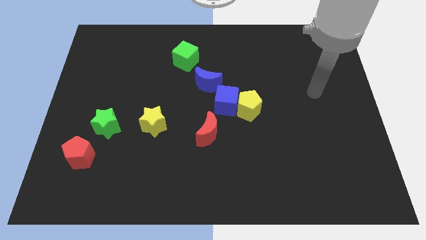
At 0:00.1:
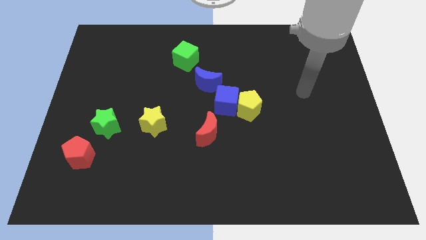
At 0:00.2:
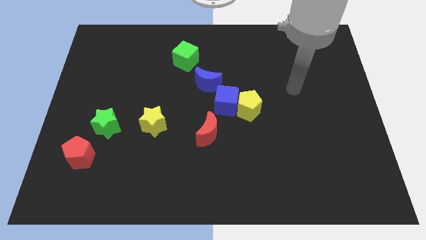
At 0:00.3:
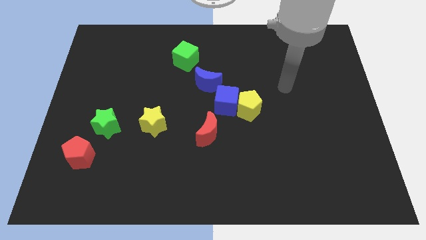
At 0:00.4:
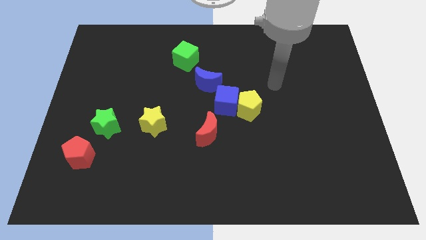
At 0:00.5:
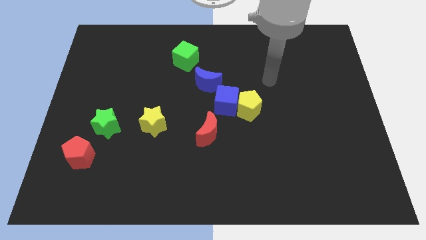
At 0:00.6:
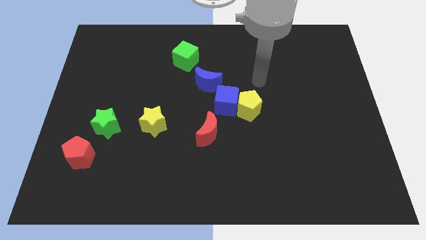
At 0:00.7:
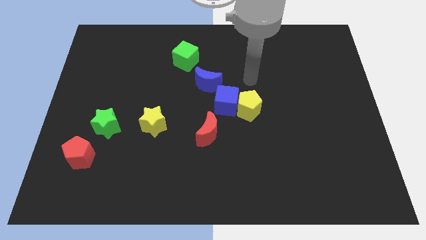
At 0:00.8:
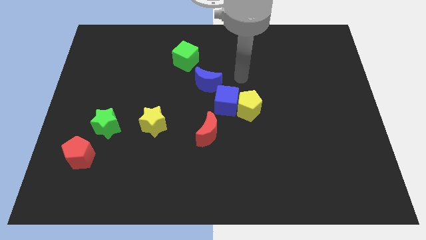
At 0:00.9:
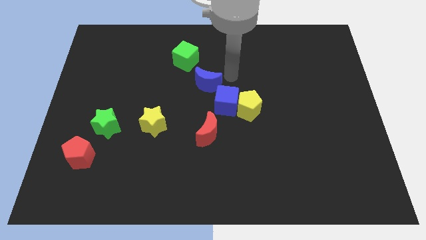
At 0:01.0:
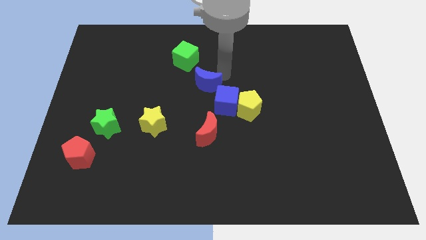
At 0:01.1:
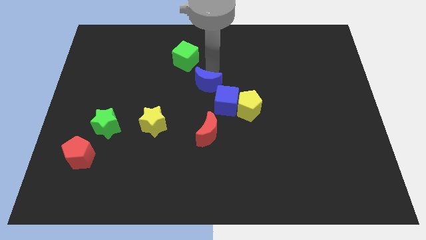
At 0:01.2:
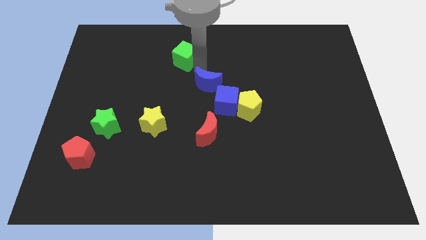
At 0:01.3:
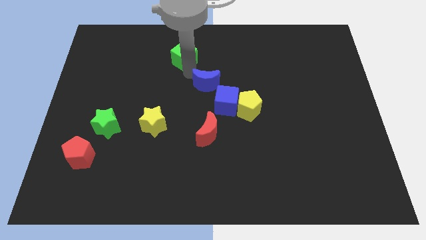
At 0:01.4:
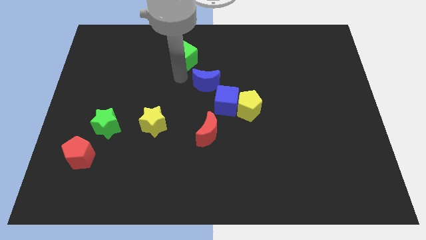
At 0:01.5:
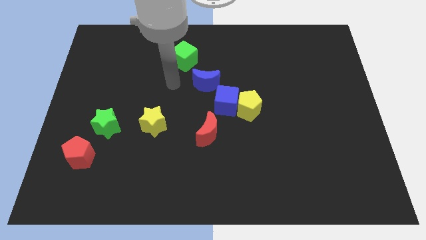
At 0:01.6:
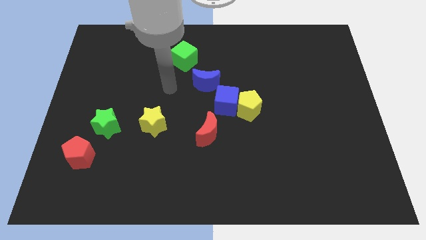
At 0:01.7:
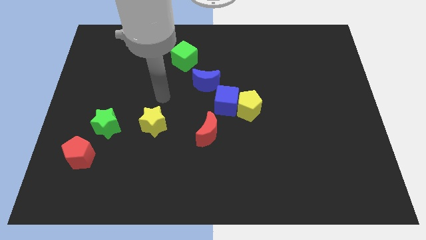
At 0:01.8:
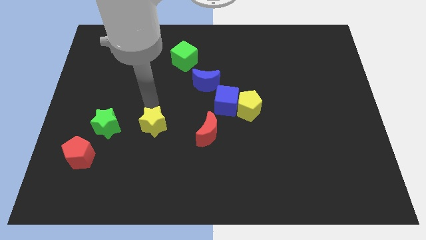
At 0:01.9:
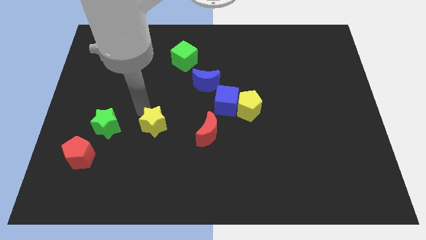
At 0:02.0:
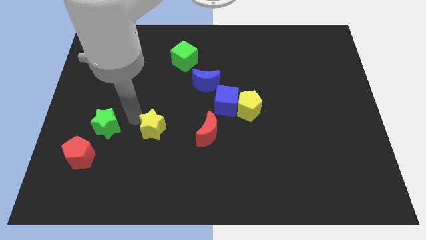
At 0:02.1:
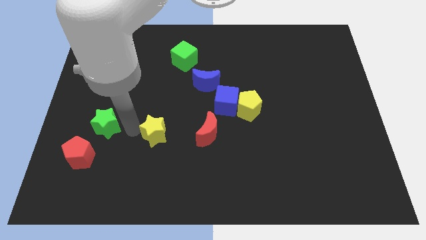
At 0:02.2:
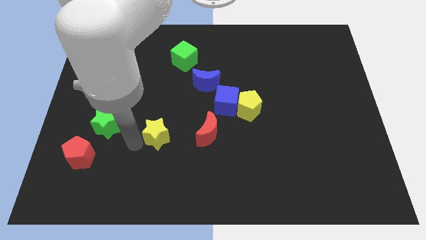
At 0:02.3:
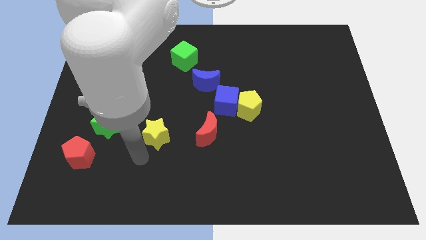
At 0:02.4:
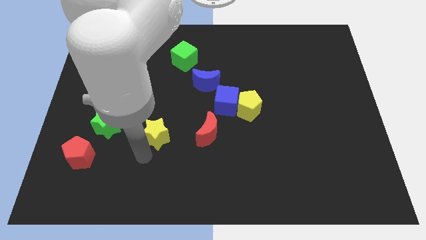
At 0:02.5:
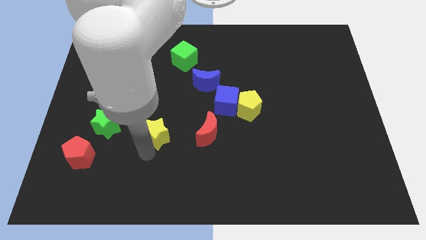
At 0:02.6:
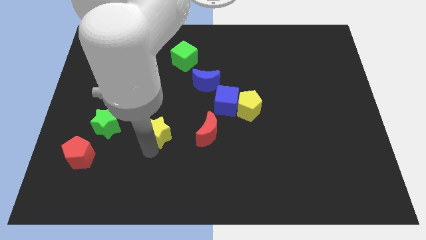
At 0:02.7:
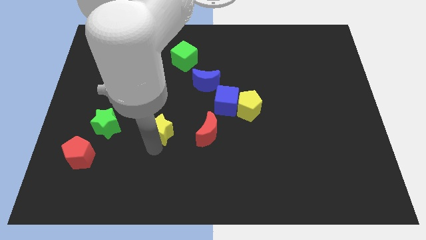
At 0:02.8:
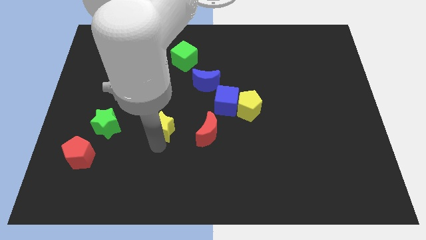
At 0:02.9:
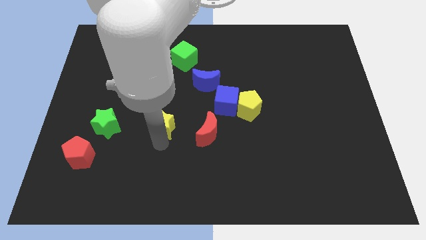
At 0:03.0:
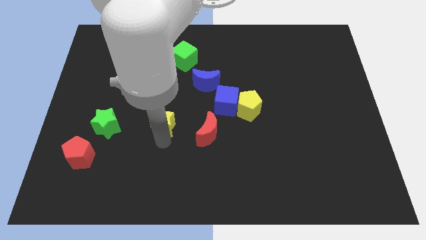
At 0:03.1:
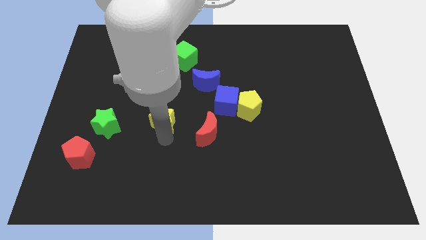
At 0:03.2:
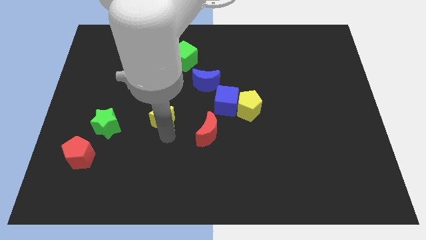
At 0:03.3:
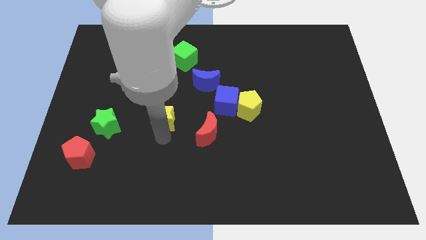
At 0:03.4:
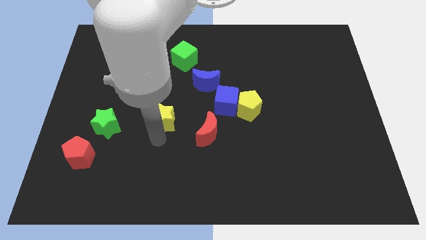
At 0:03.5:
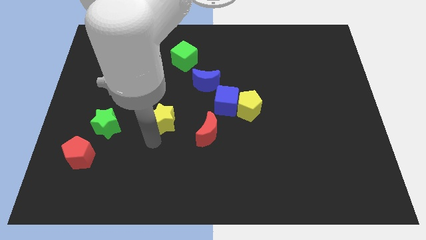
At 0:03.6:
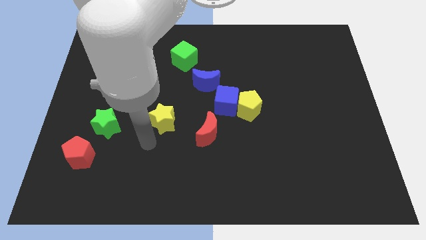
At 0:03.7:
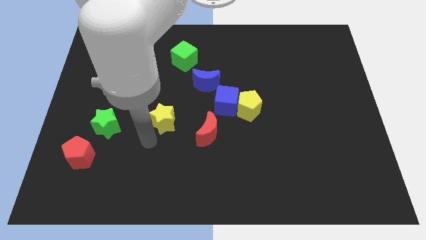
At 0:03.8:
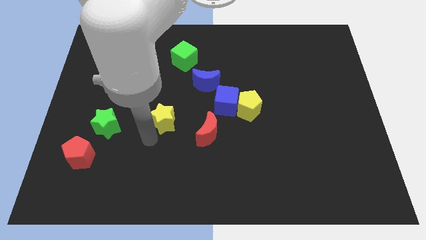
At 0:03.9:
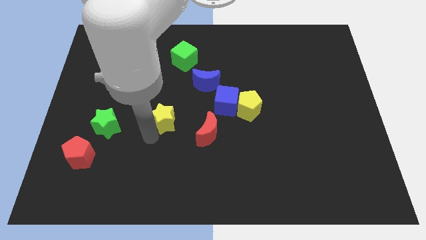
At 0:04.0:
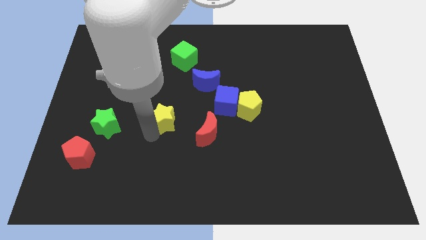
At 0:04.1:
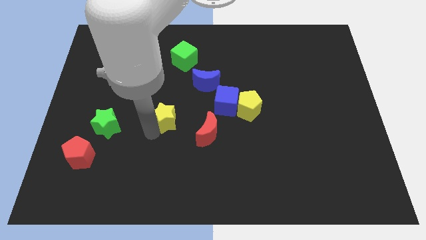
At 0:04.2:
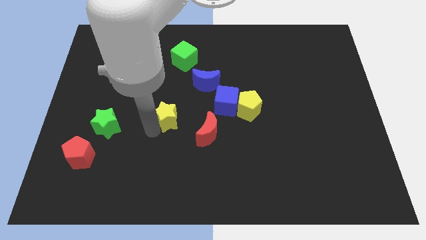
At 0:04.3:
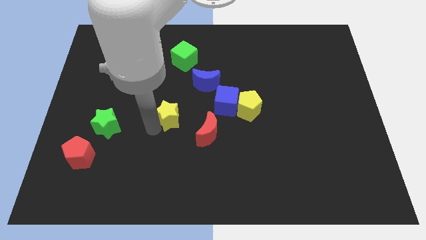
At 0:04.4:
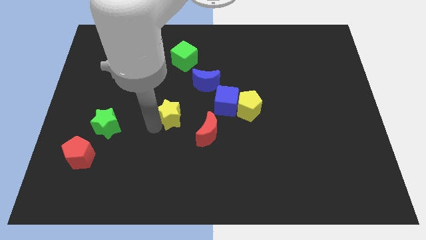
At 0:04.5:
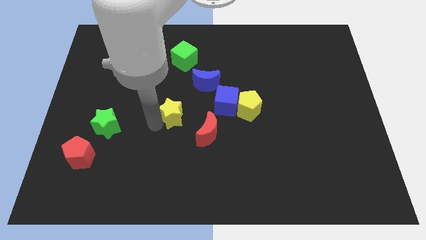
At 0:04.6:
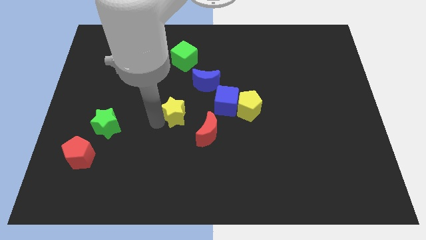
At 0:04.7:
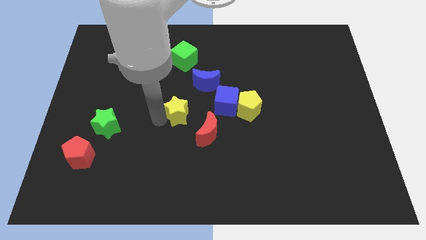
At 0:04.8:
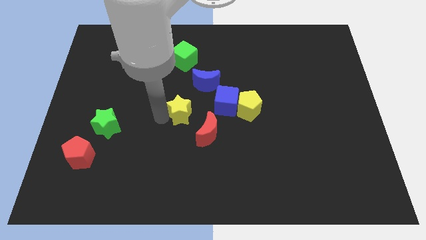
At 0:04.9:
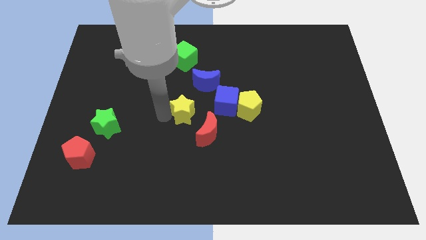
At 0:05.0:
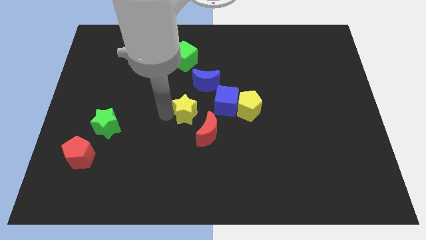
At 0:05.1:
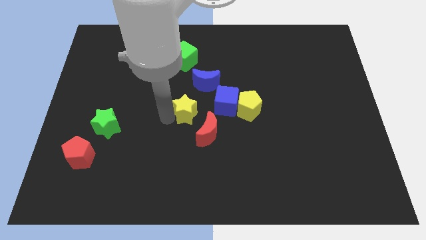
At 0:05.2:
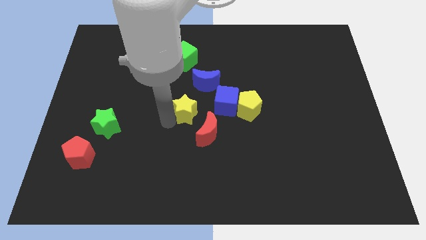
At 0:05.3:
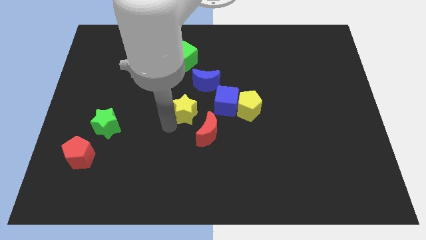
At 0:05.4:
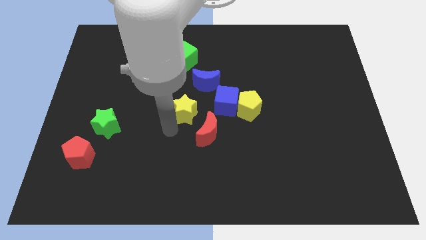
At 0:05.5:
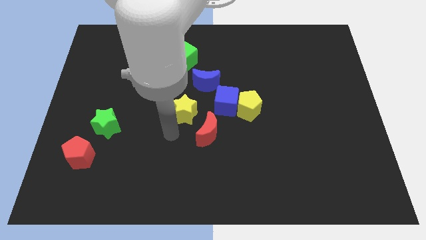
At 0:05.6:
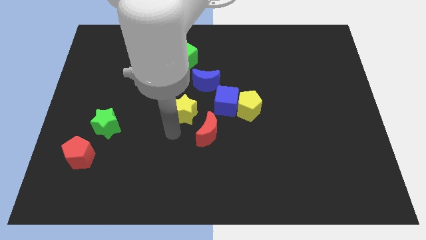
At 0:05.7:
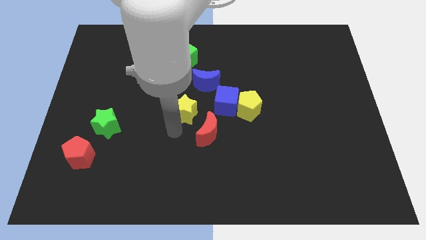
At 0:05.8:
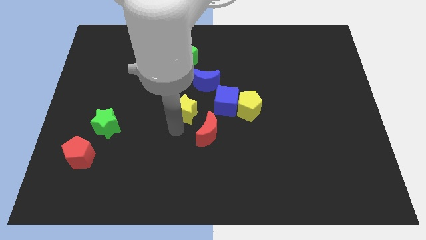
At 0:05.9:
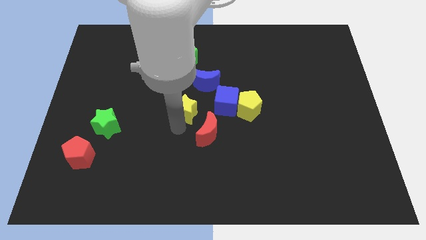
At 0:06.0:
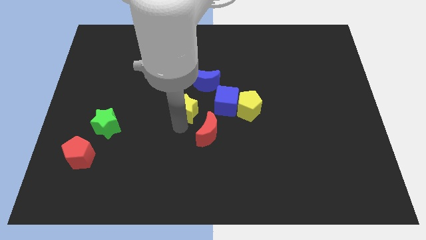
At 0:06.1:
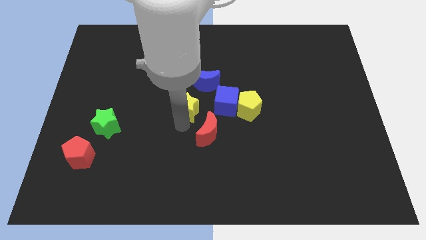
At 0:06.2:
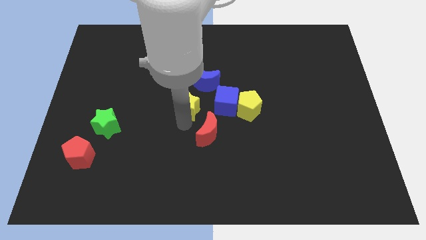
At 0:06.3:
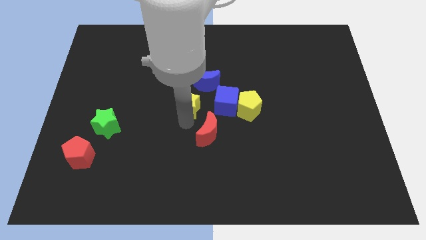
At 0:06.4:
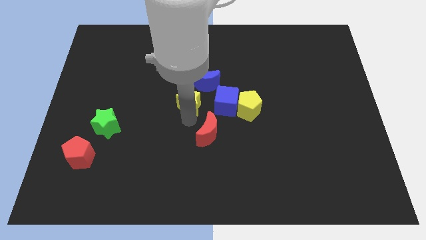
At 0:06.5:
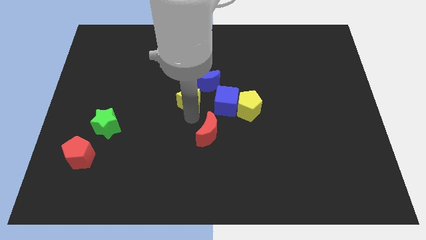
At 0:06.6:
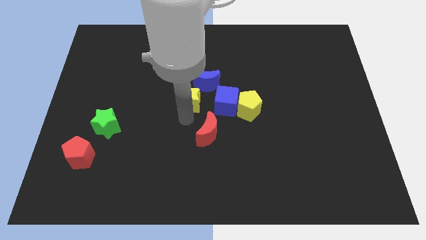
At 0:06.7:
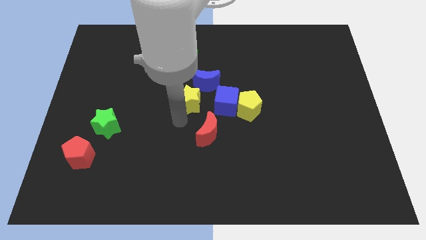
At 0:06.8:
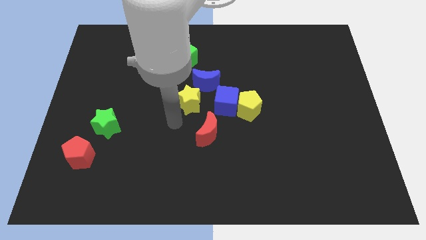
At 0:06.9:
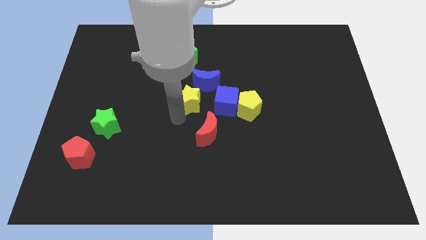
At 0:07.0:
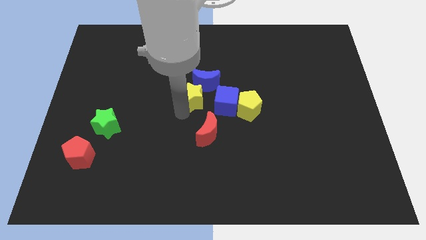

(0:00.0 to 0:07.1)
put the yellow star close to the blue moon
